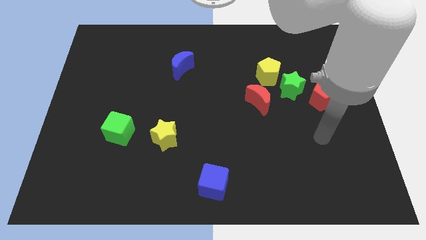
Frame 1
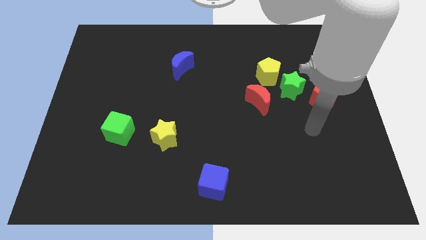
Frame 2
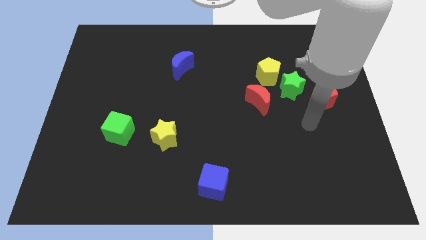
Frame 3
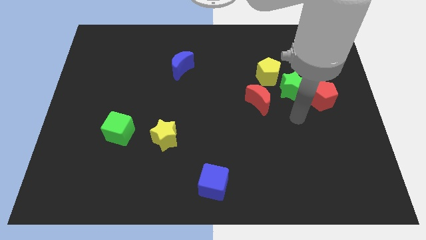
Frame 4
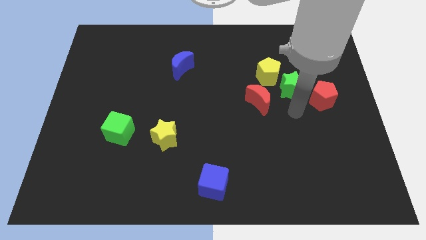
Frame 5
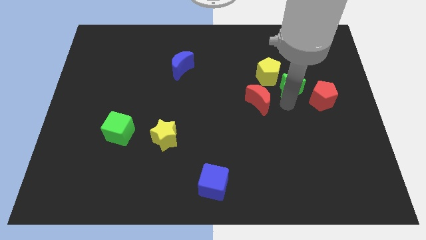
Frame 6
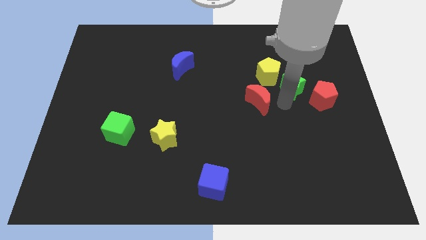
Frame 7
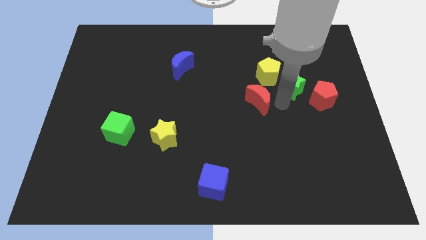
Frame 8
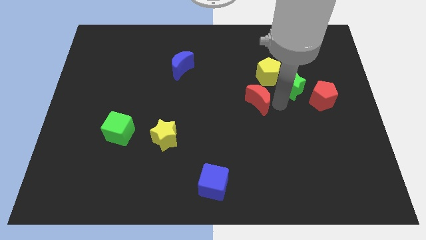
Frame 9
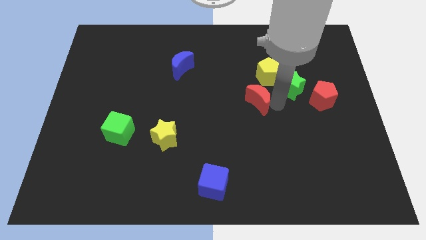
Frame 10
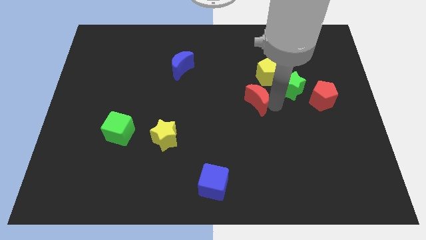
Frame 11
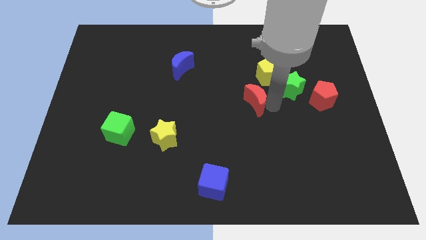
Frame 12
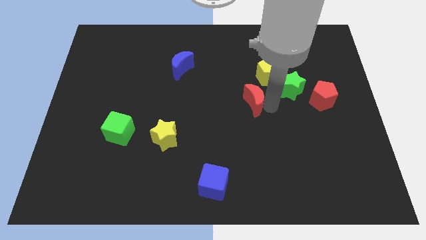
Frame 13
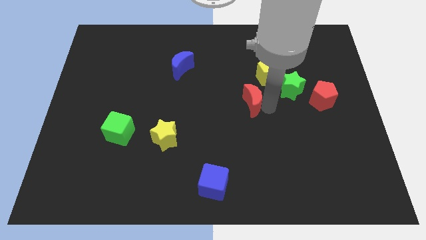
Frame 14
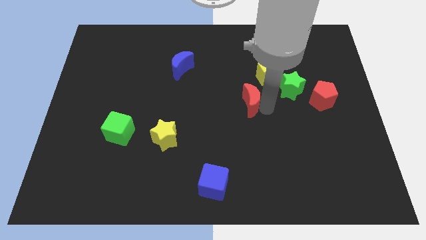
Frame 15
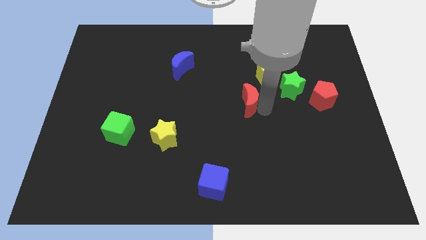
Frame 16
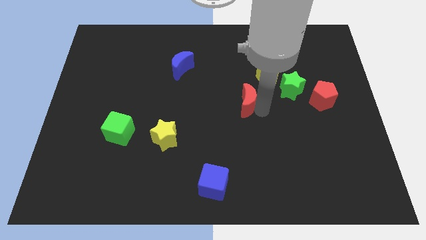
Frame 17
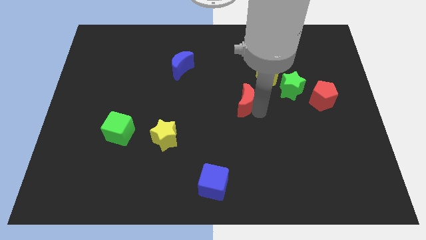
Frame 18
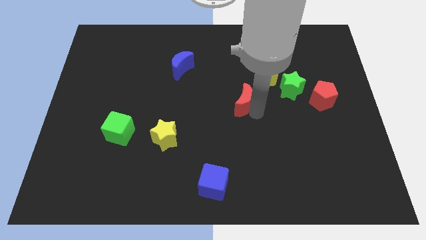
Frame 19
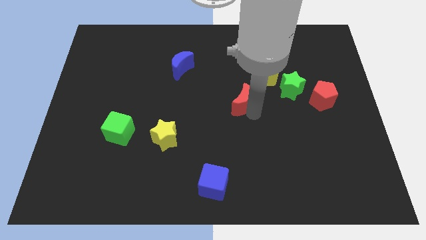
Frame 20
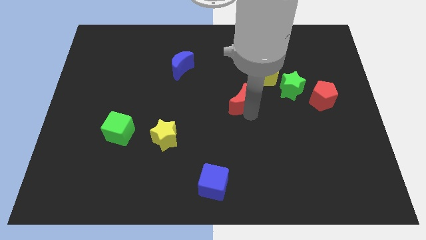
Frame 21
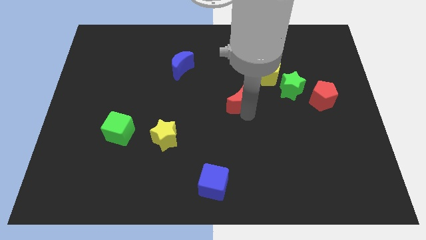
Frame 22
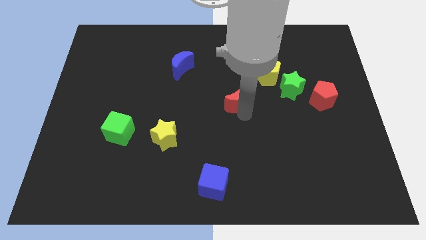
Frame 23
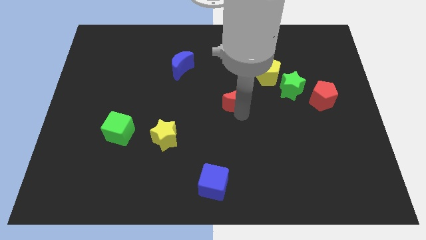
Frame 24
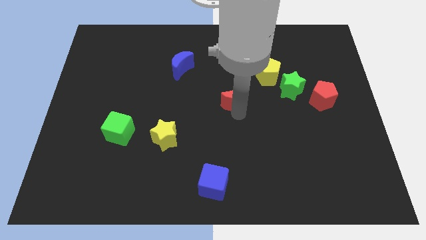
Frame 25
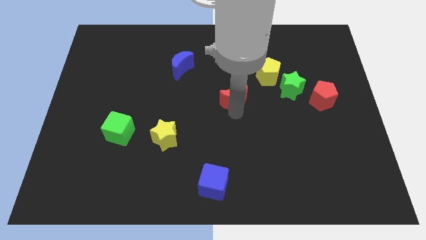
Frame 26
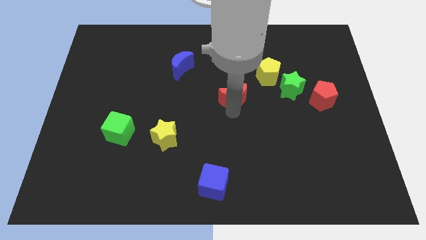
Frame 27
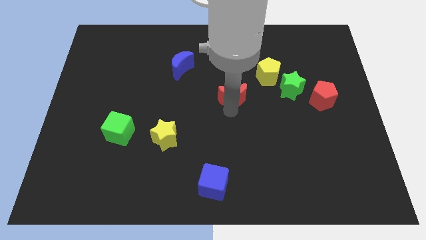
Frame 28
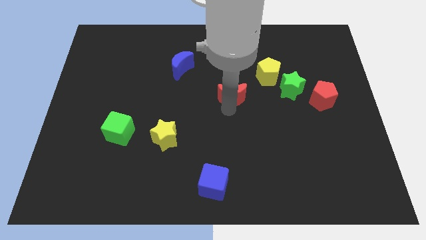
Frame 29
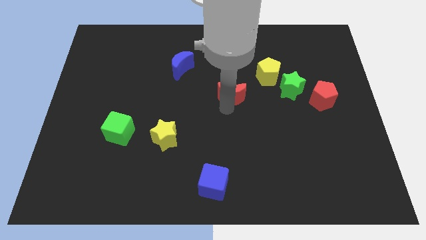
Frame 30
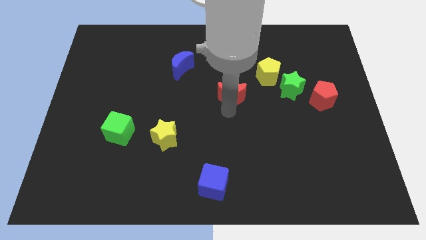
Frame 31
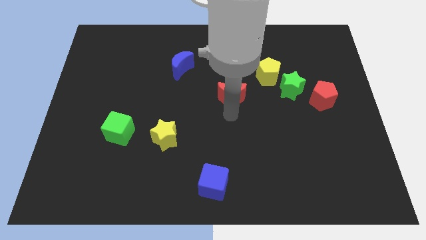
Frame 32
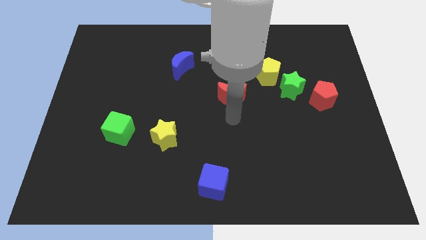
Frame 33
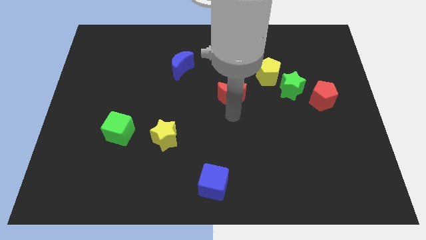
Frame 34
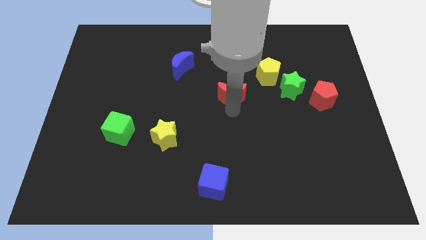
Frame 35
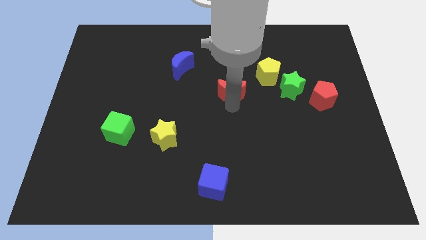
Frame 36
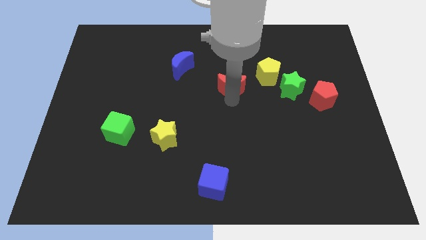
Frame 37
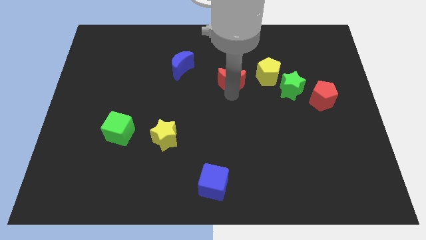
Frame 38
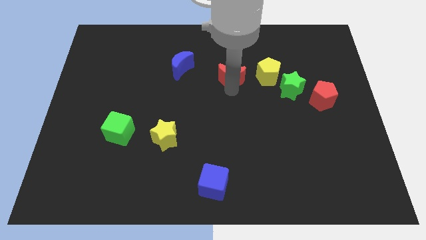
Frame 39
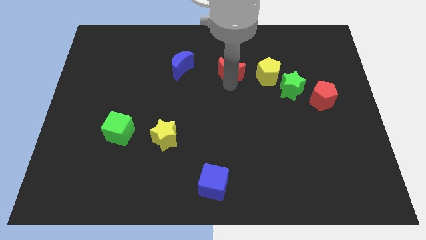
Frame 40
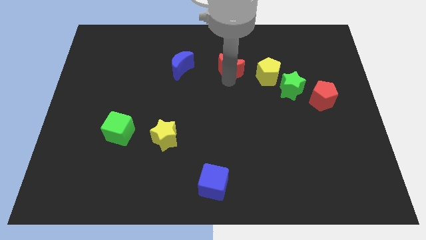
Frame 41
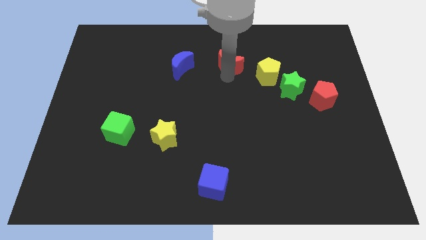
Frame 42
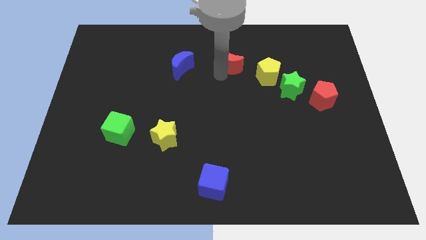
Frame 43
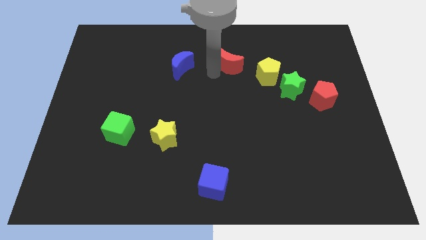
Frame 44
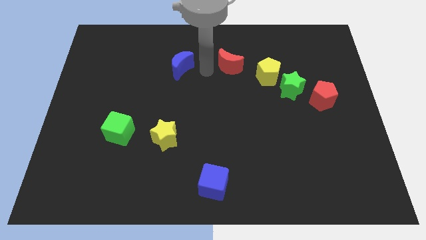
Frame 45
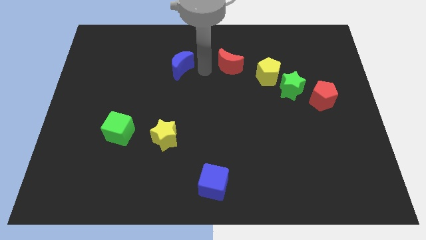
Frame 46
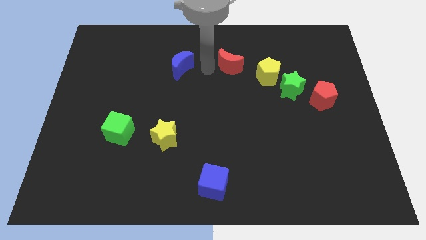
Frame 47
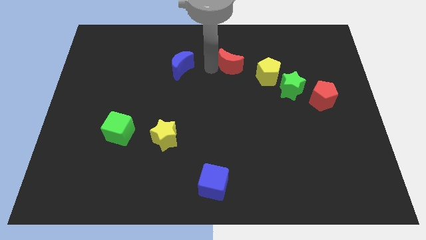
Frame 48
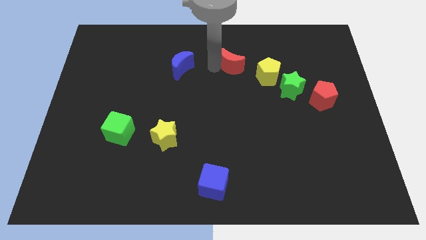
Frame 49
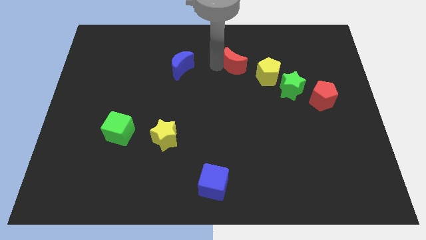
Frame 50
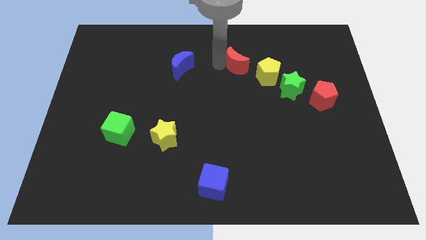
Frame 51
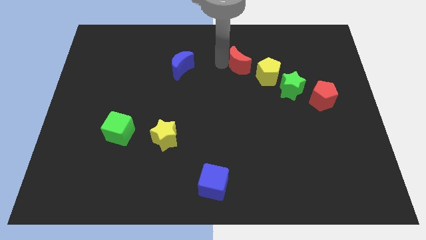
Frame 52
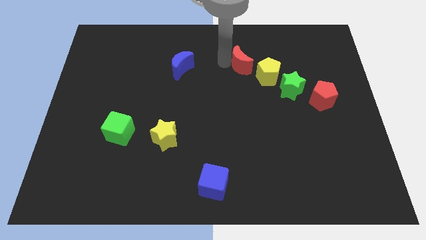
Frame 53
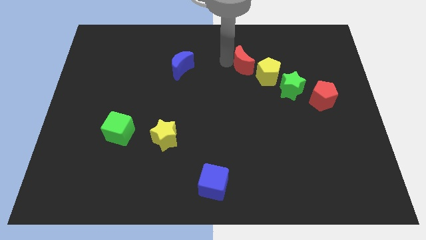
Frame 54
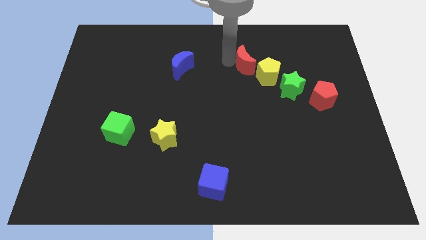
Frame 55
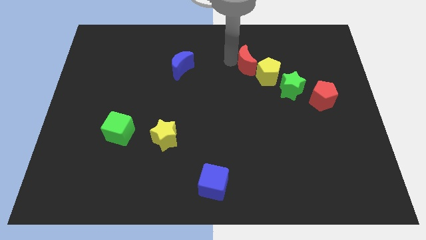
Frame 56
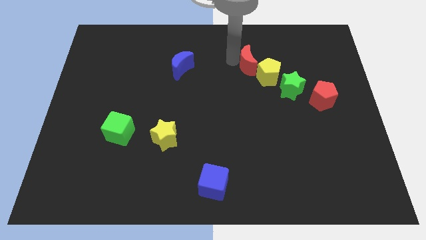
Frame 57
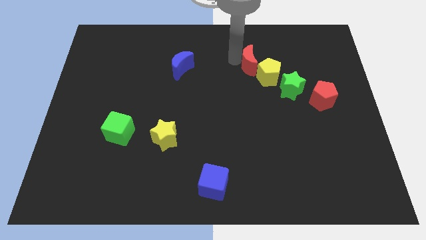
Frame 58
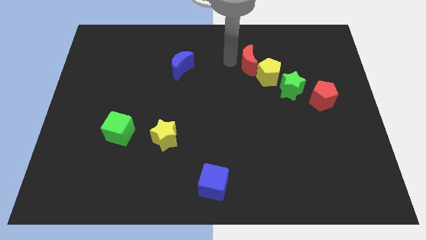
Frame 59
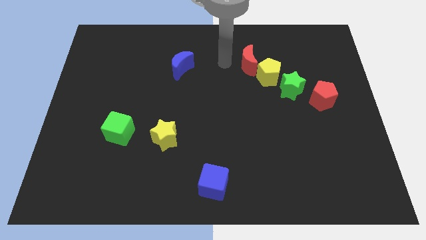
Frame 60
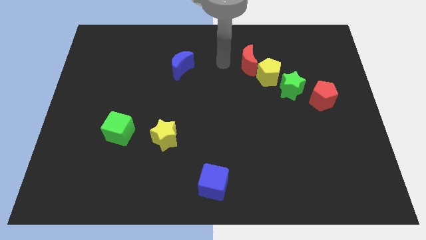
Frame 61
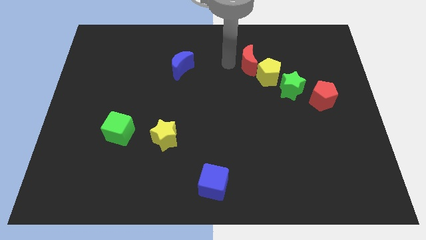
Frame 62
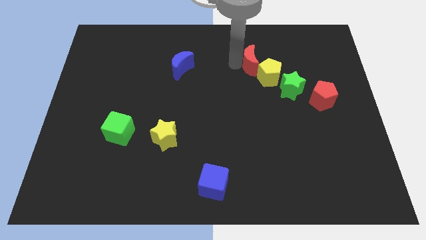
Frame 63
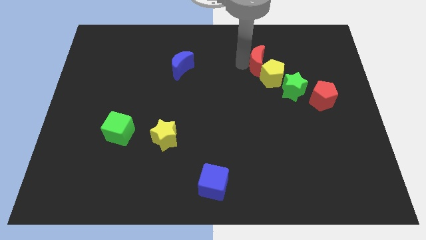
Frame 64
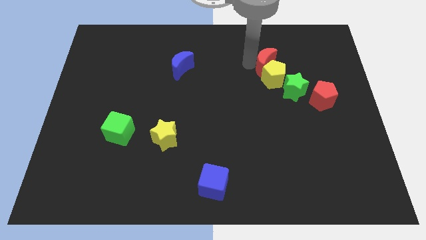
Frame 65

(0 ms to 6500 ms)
slightly move the red moon upwards and right diagonally

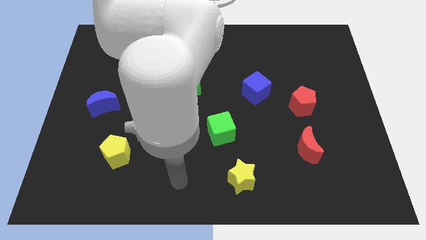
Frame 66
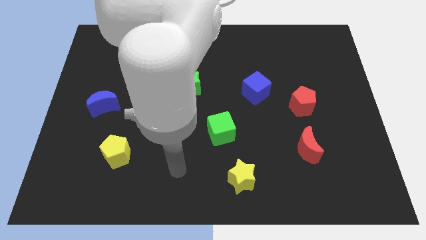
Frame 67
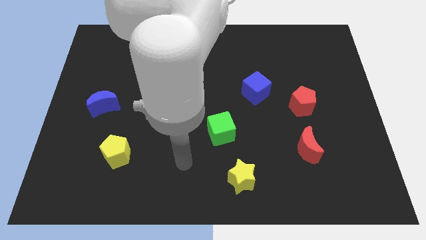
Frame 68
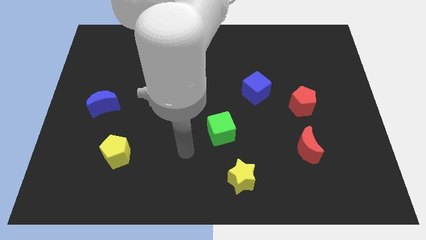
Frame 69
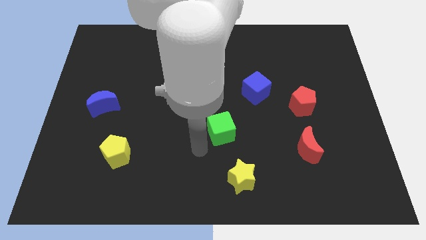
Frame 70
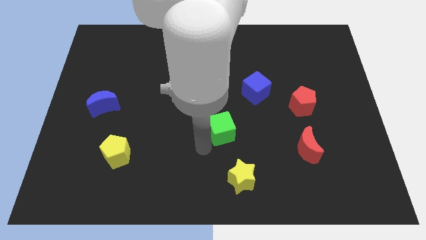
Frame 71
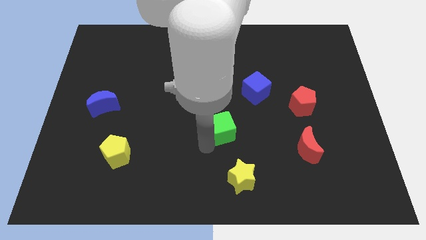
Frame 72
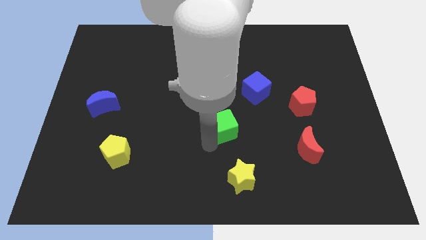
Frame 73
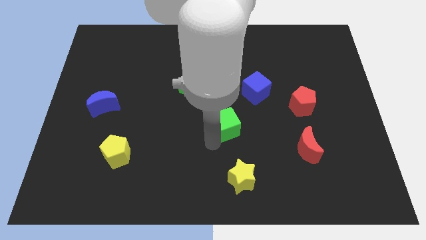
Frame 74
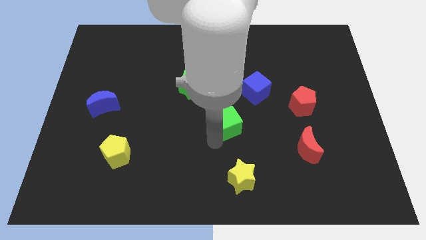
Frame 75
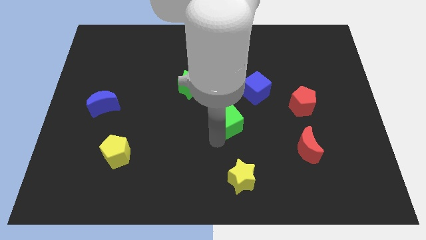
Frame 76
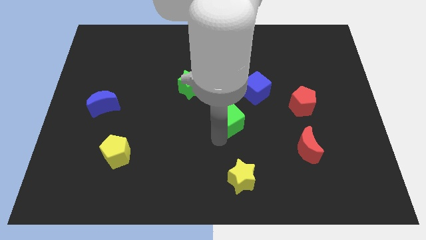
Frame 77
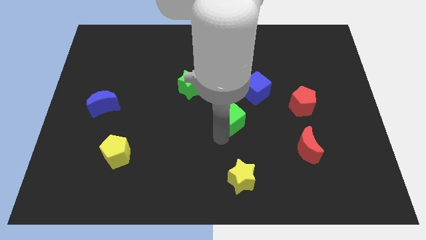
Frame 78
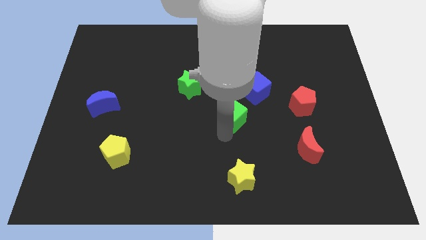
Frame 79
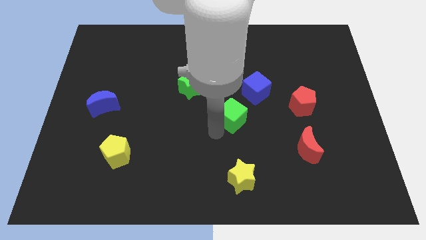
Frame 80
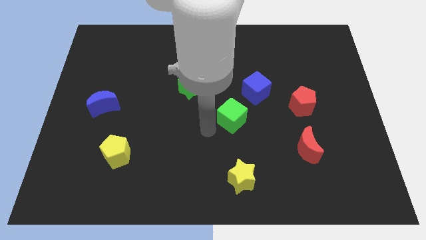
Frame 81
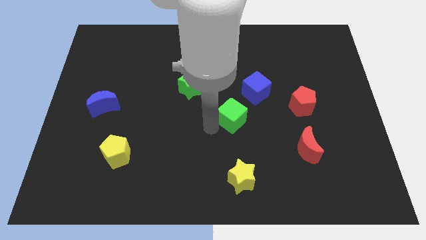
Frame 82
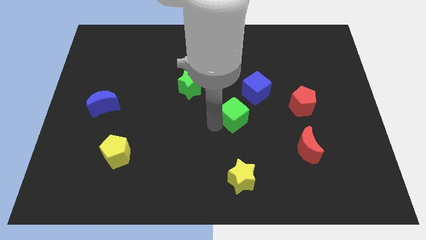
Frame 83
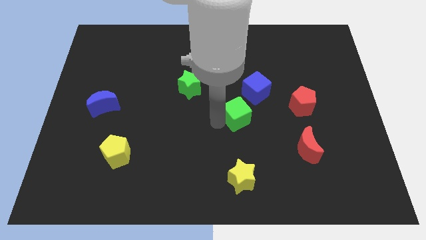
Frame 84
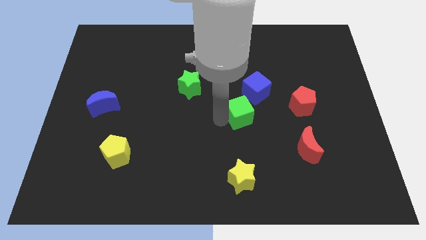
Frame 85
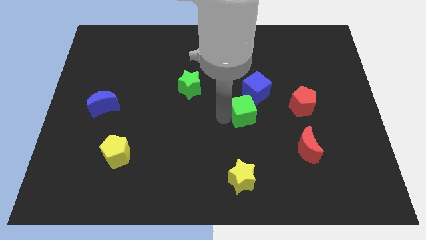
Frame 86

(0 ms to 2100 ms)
move the green cube a bit diagonally up and to the right
